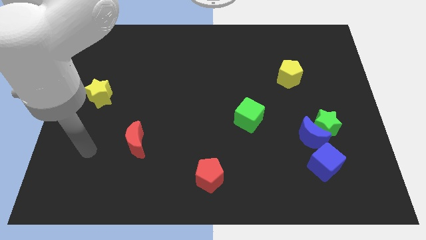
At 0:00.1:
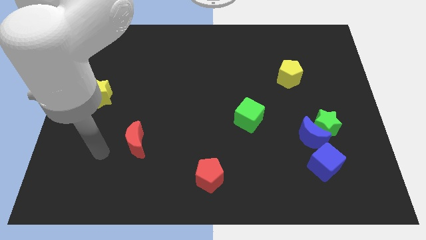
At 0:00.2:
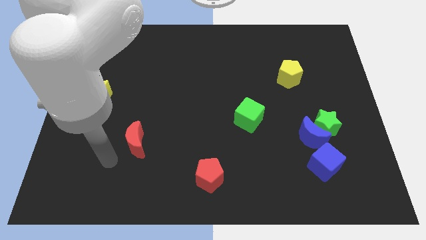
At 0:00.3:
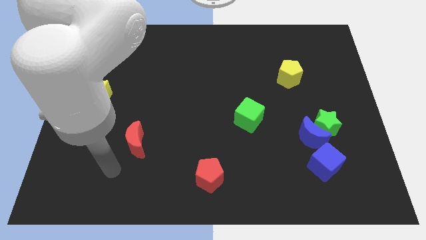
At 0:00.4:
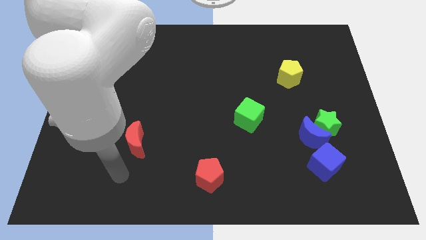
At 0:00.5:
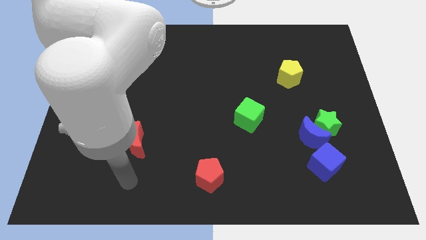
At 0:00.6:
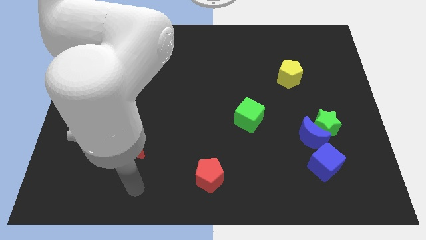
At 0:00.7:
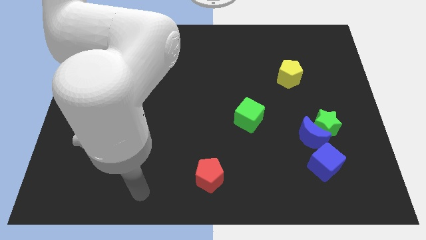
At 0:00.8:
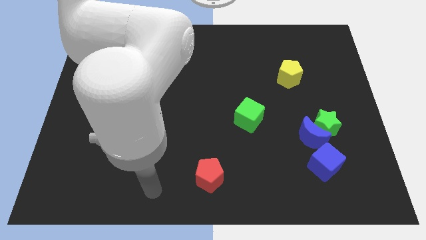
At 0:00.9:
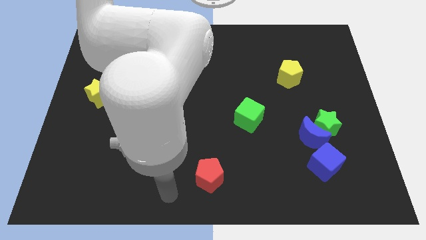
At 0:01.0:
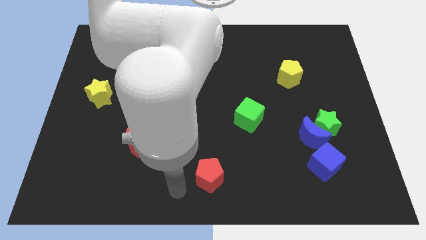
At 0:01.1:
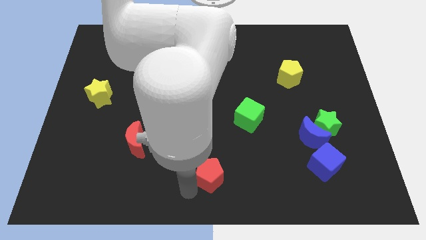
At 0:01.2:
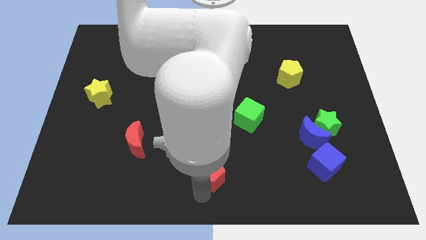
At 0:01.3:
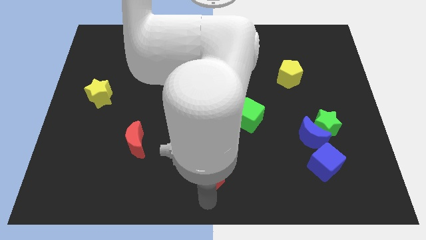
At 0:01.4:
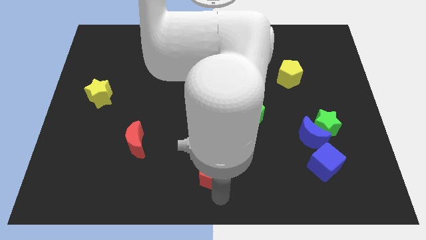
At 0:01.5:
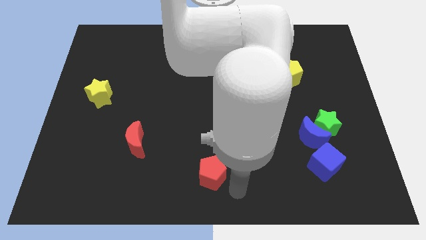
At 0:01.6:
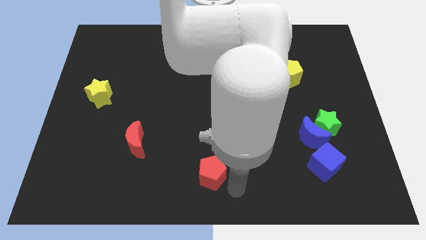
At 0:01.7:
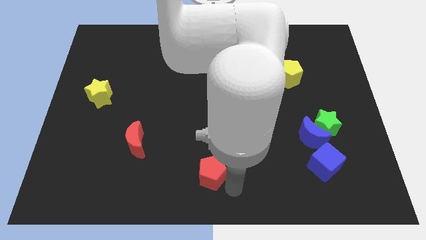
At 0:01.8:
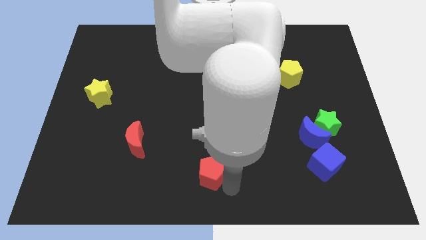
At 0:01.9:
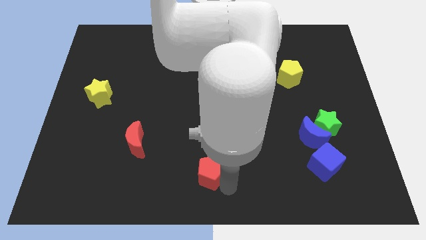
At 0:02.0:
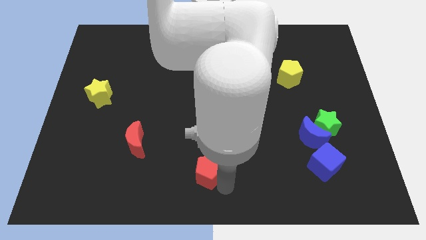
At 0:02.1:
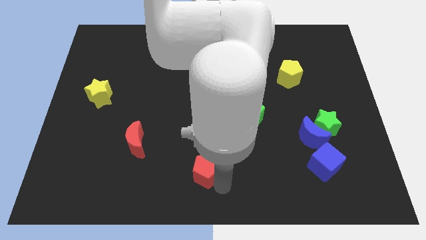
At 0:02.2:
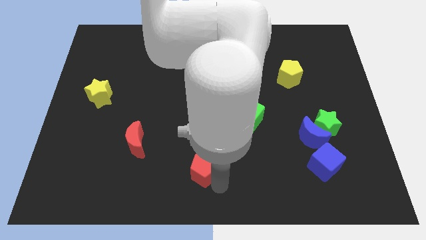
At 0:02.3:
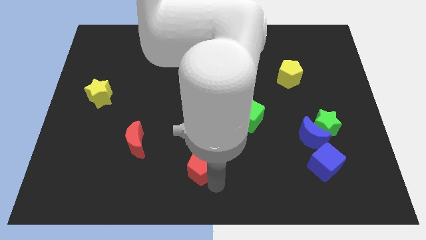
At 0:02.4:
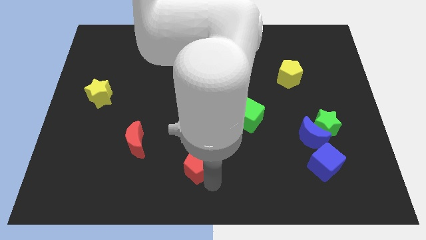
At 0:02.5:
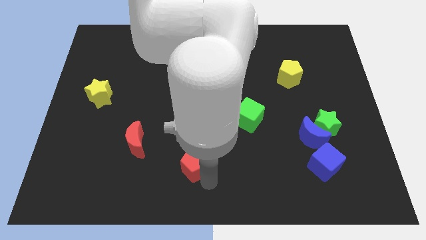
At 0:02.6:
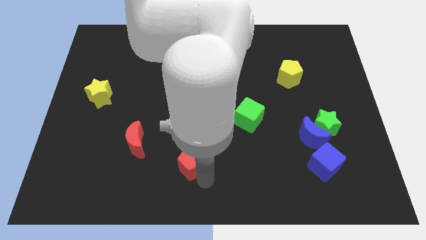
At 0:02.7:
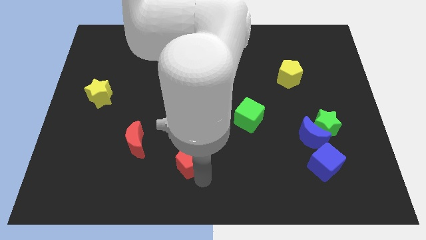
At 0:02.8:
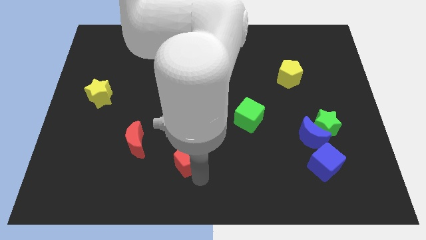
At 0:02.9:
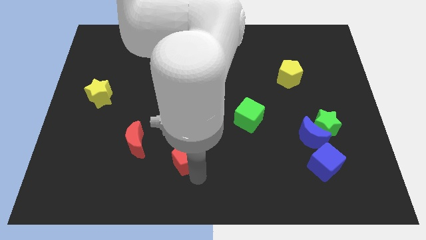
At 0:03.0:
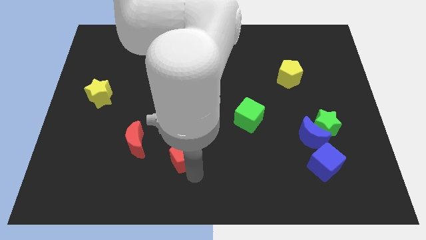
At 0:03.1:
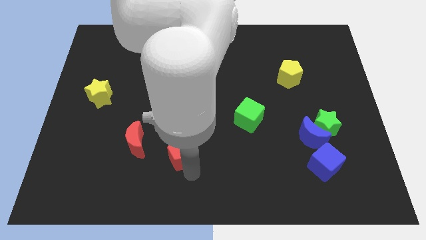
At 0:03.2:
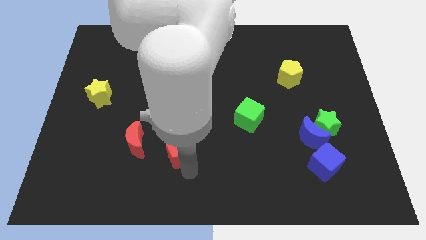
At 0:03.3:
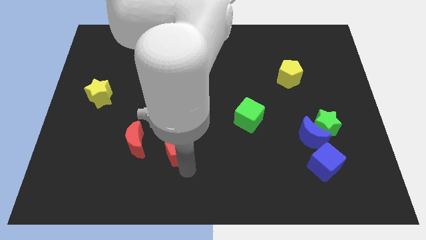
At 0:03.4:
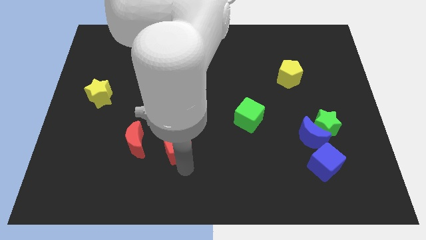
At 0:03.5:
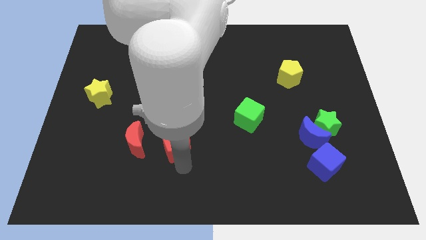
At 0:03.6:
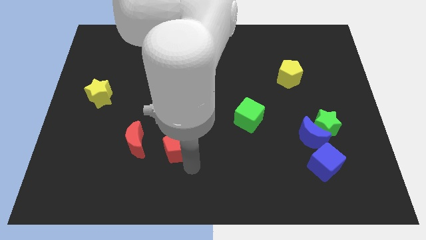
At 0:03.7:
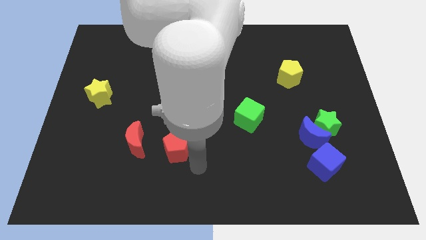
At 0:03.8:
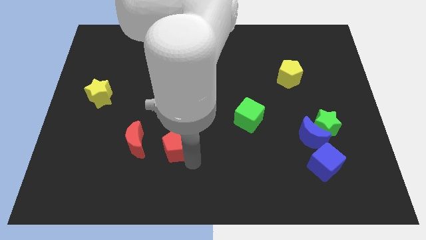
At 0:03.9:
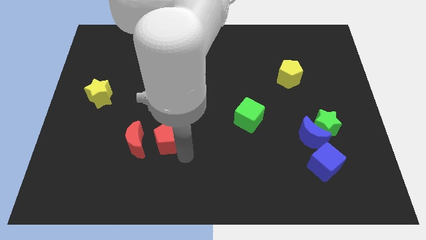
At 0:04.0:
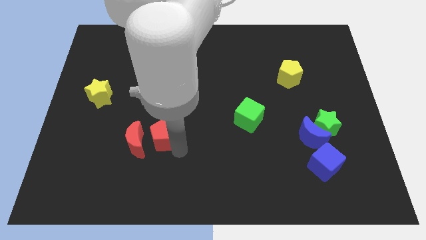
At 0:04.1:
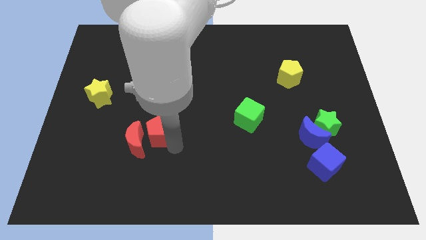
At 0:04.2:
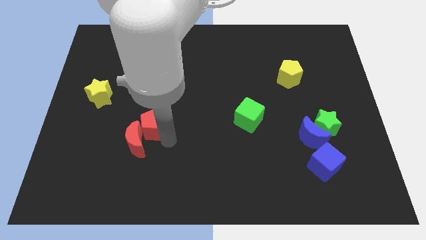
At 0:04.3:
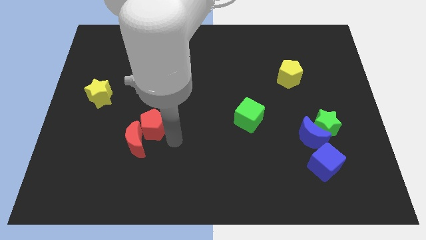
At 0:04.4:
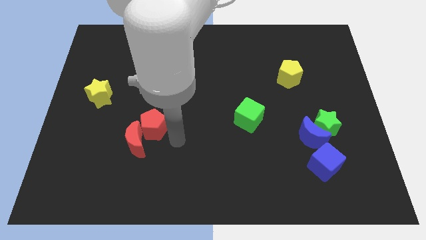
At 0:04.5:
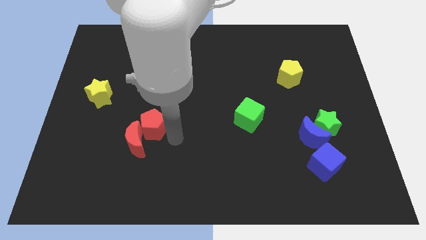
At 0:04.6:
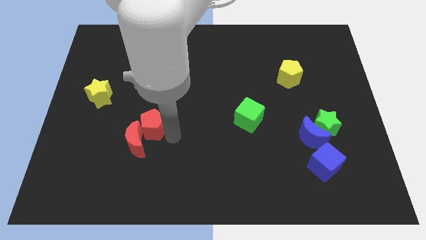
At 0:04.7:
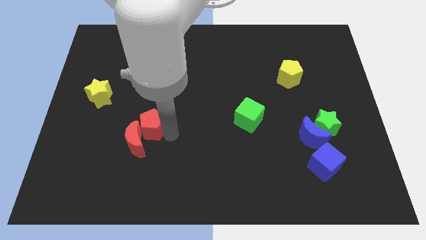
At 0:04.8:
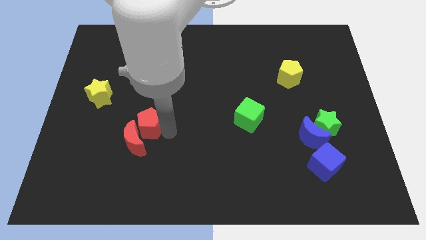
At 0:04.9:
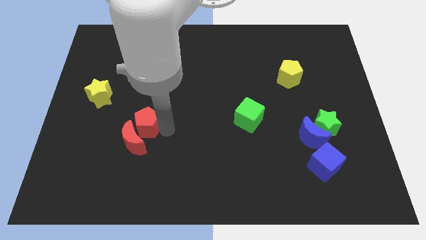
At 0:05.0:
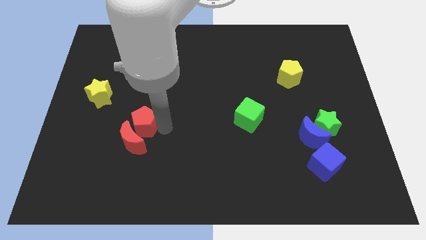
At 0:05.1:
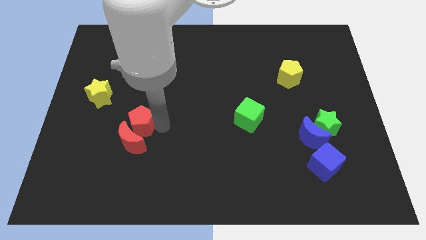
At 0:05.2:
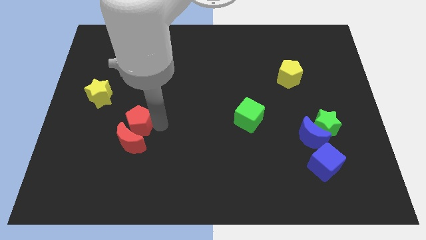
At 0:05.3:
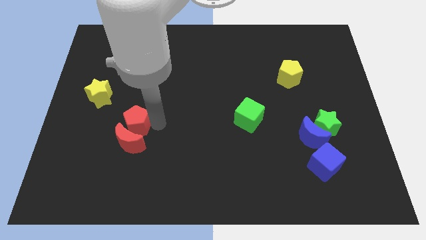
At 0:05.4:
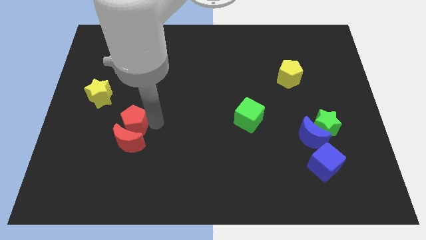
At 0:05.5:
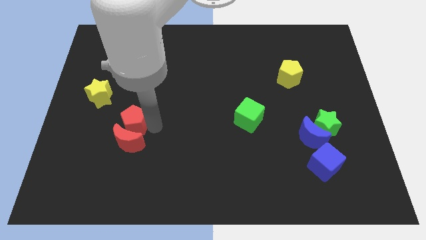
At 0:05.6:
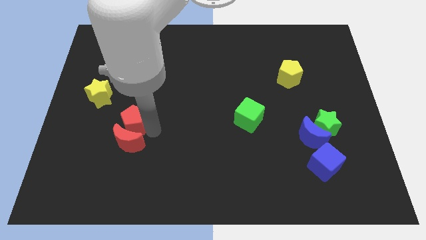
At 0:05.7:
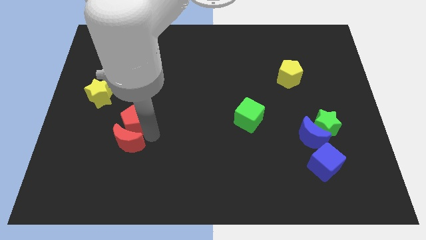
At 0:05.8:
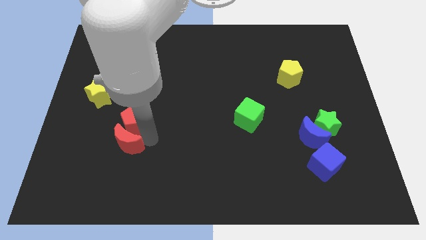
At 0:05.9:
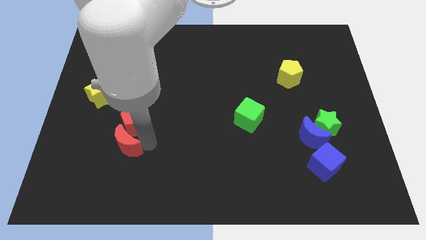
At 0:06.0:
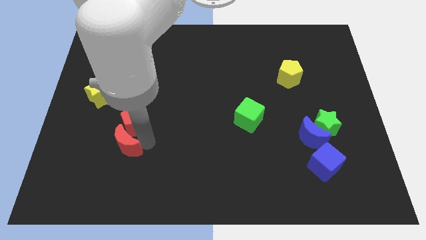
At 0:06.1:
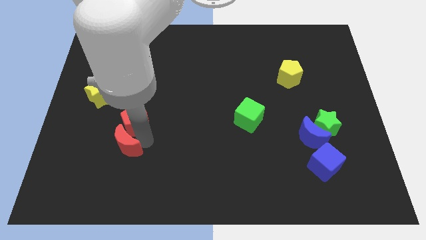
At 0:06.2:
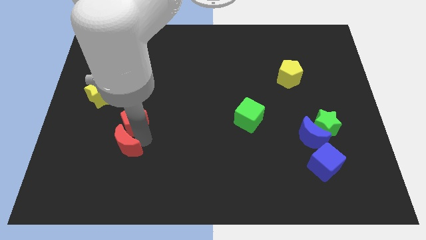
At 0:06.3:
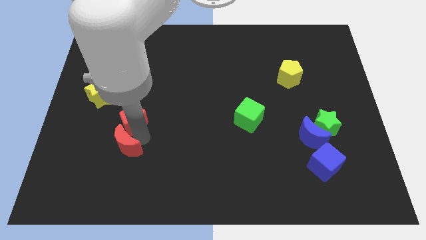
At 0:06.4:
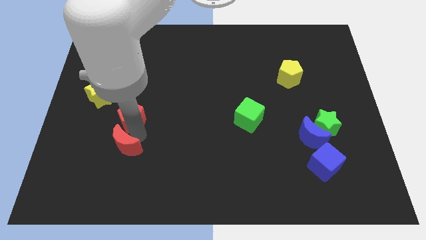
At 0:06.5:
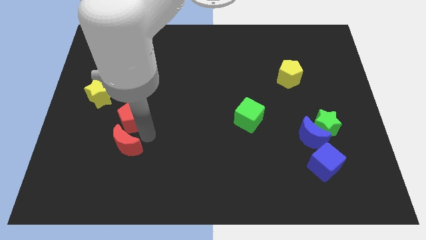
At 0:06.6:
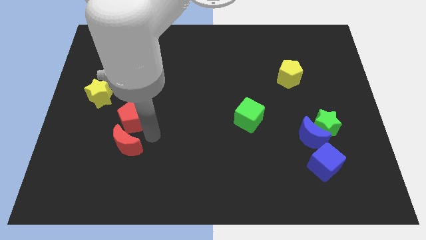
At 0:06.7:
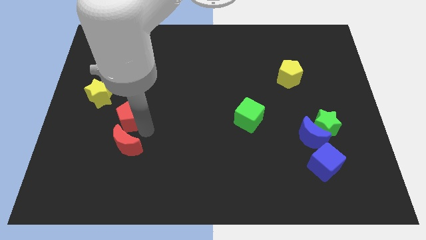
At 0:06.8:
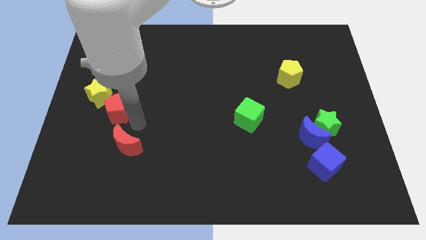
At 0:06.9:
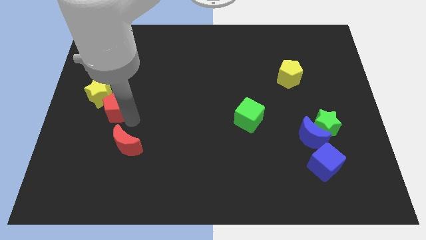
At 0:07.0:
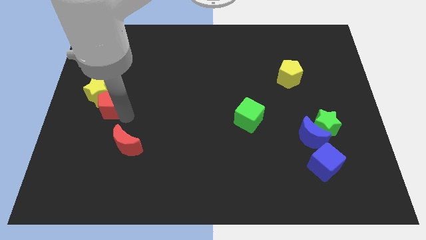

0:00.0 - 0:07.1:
push the red pentagon close to the yellow star
